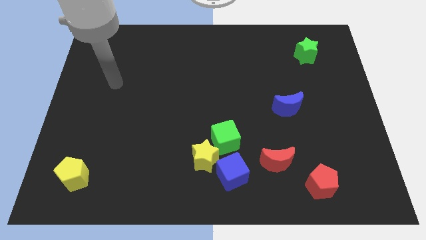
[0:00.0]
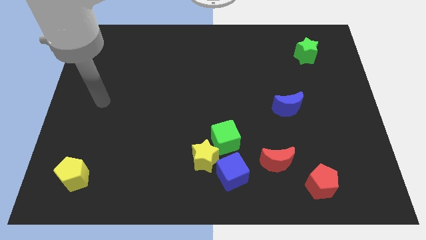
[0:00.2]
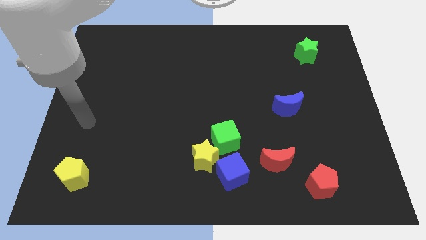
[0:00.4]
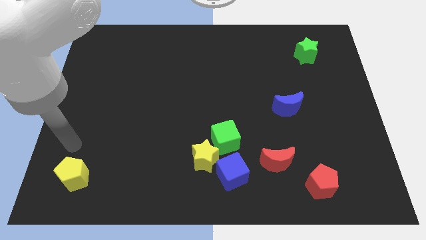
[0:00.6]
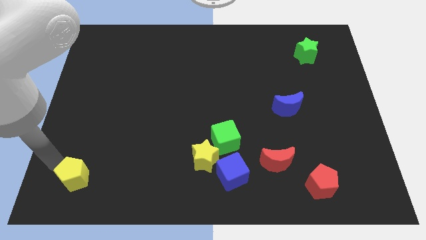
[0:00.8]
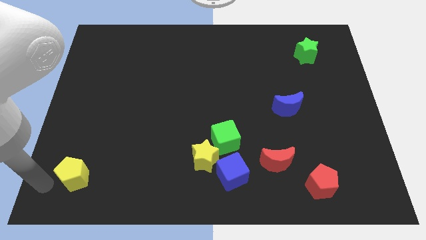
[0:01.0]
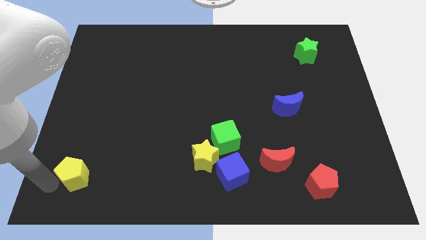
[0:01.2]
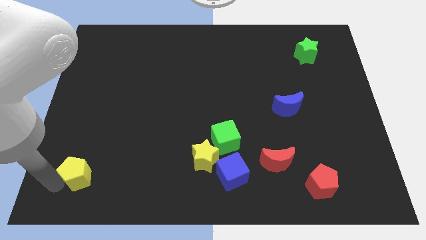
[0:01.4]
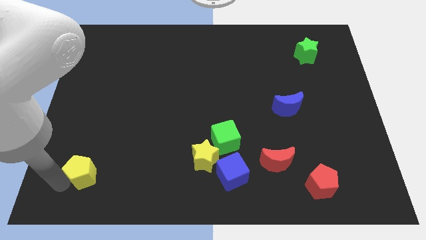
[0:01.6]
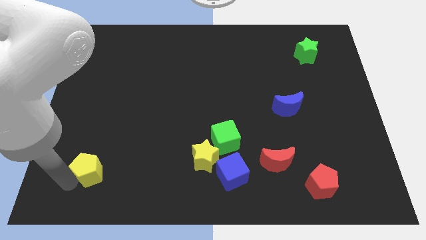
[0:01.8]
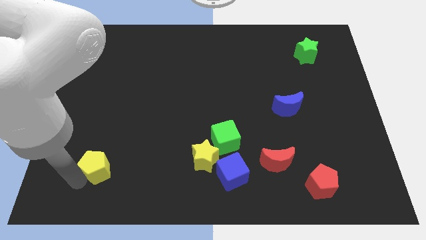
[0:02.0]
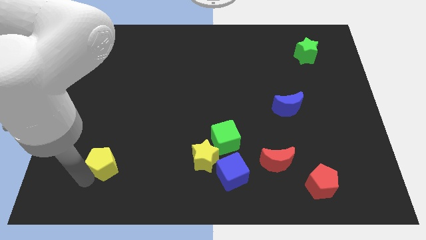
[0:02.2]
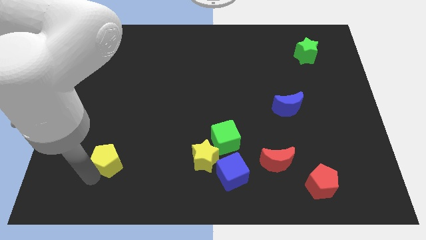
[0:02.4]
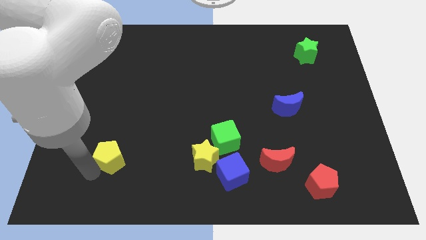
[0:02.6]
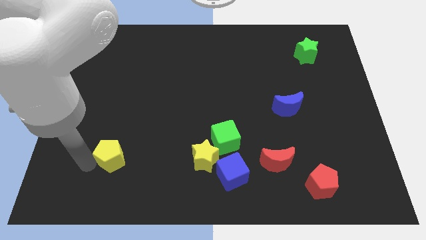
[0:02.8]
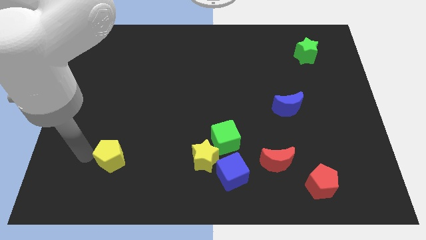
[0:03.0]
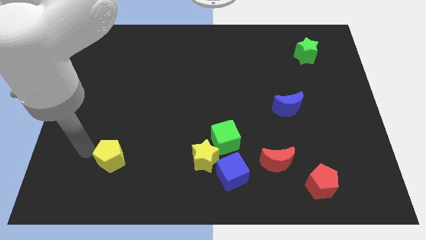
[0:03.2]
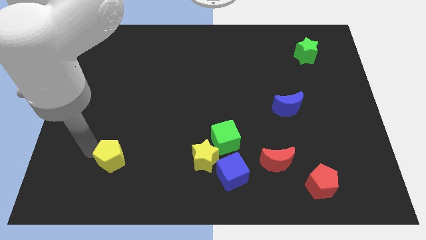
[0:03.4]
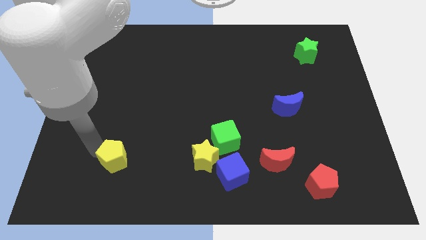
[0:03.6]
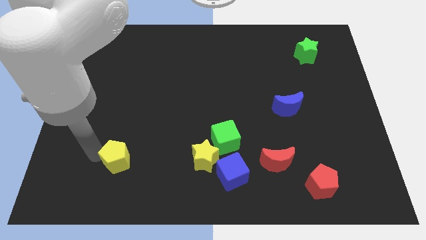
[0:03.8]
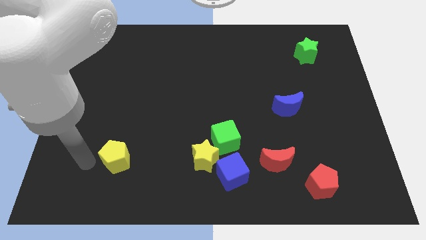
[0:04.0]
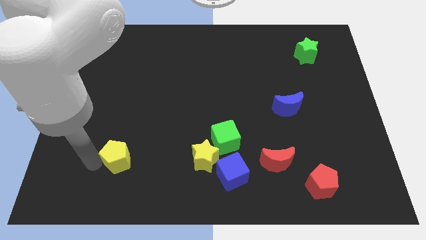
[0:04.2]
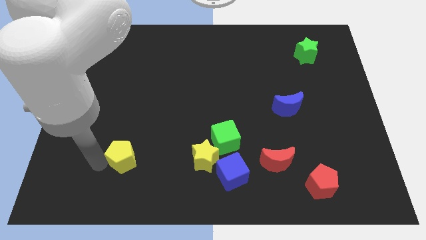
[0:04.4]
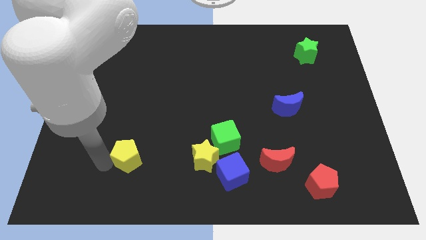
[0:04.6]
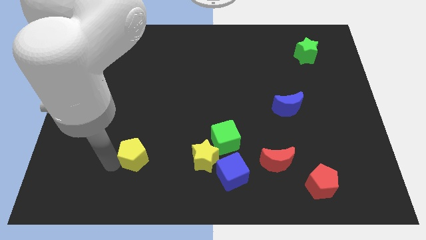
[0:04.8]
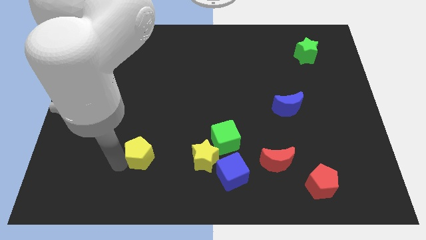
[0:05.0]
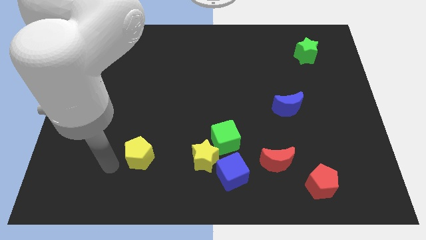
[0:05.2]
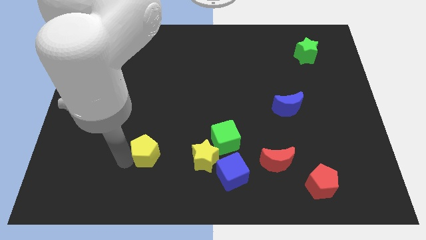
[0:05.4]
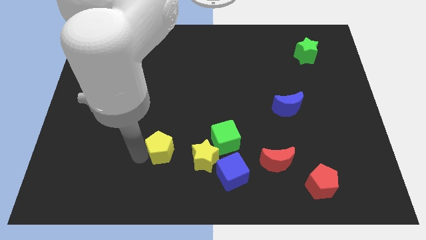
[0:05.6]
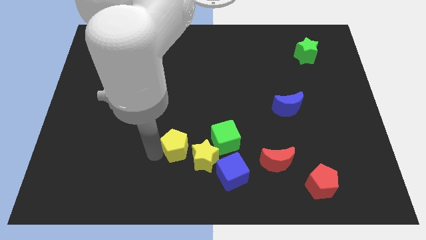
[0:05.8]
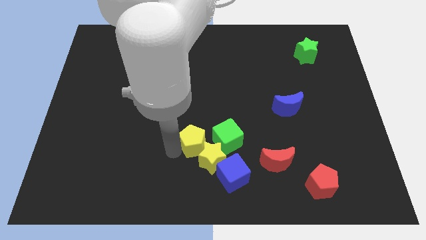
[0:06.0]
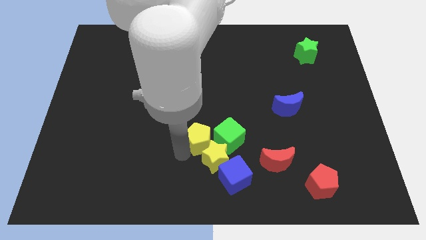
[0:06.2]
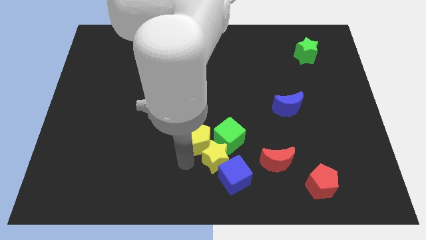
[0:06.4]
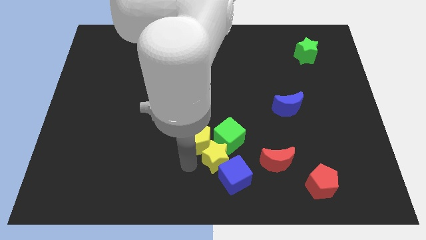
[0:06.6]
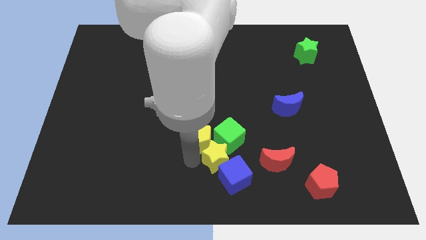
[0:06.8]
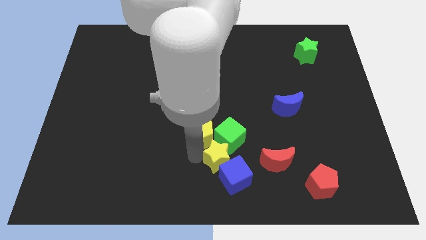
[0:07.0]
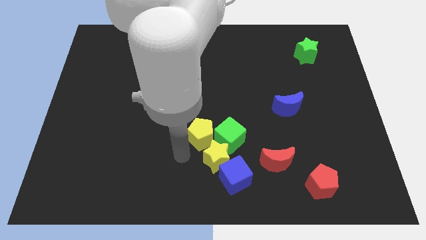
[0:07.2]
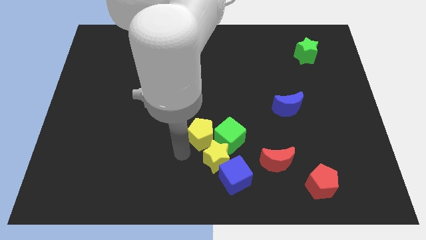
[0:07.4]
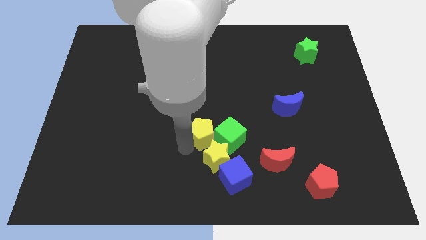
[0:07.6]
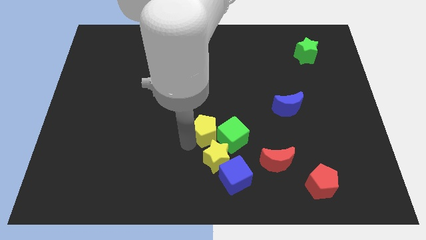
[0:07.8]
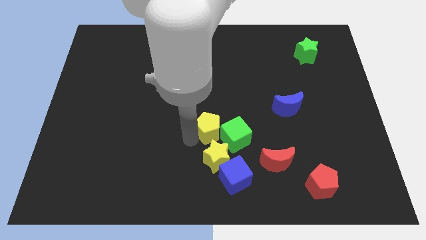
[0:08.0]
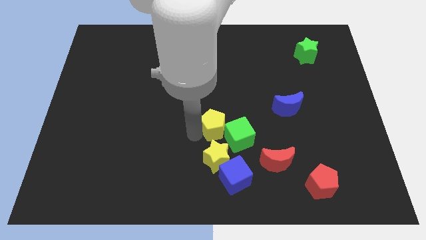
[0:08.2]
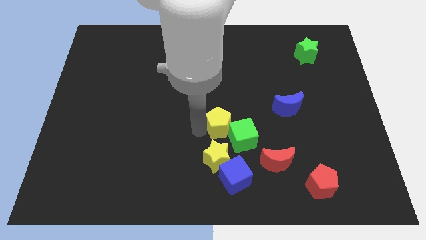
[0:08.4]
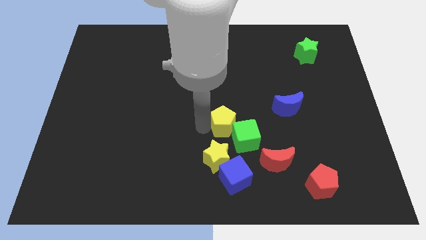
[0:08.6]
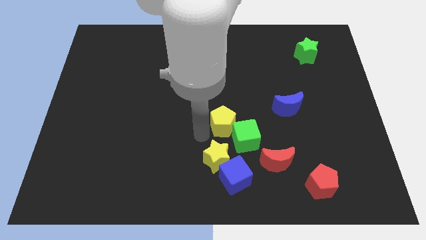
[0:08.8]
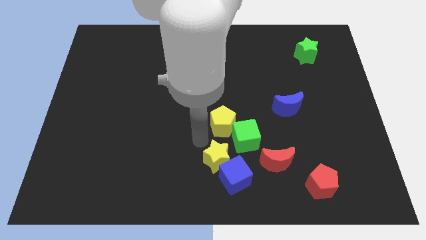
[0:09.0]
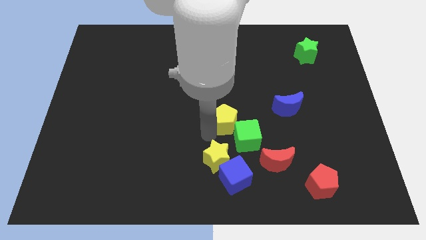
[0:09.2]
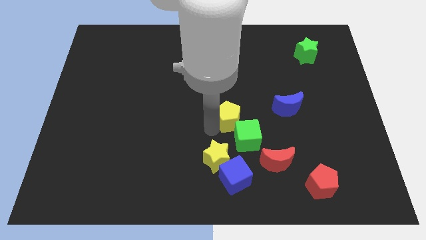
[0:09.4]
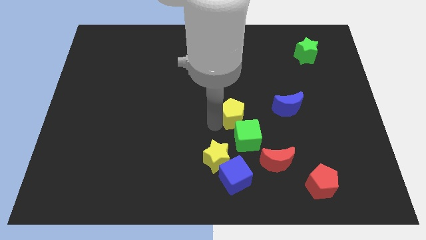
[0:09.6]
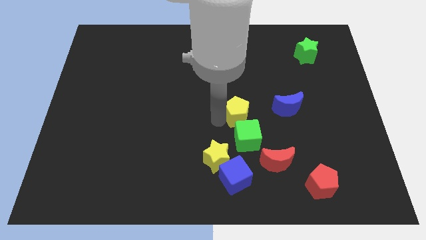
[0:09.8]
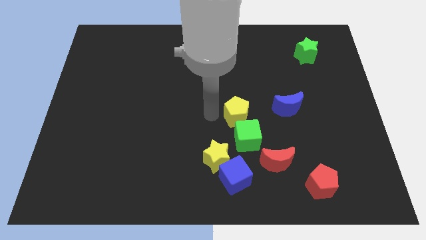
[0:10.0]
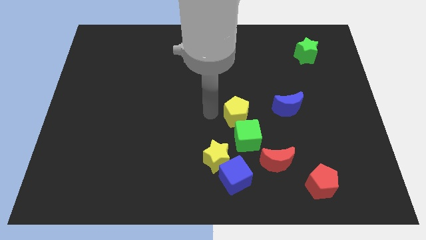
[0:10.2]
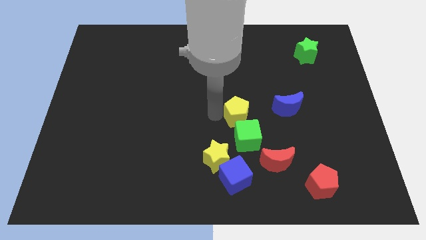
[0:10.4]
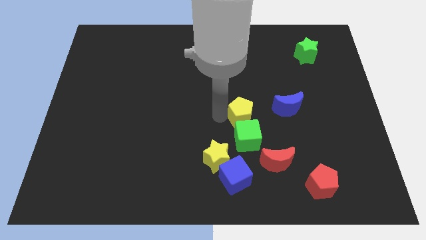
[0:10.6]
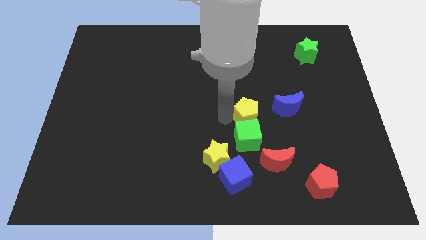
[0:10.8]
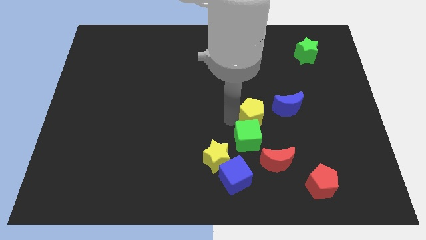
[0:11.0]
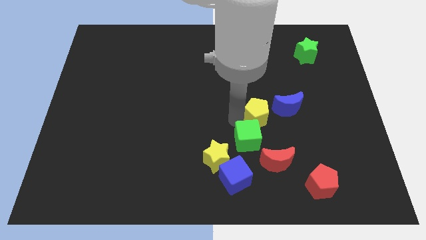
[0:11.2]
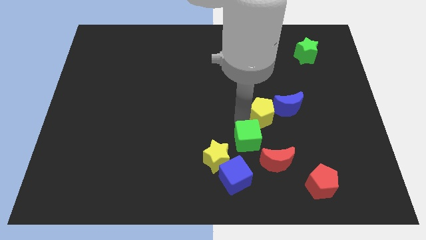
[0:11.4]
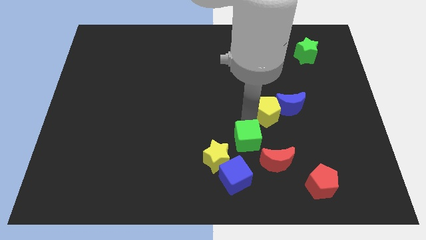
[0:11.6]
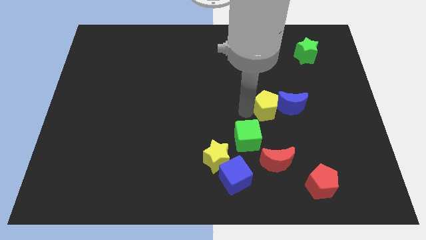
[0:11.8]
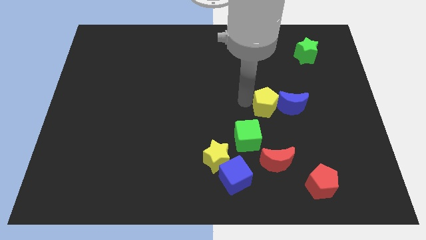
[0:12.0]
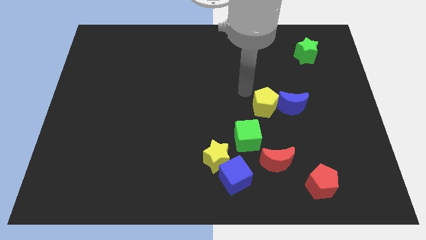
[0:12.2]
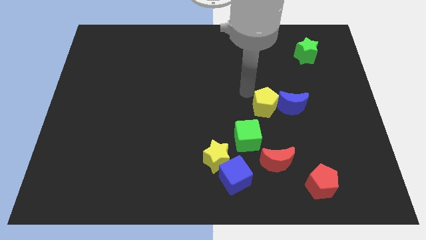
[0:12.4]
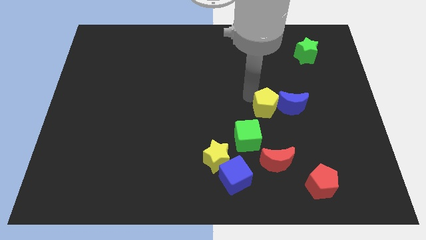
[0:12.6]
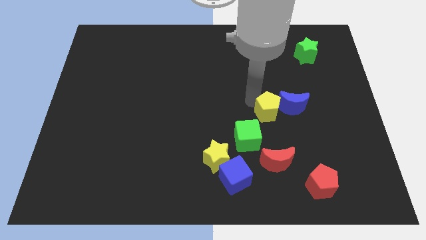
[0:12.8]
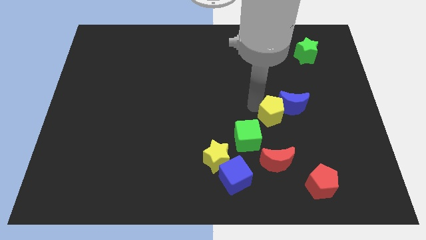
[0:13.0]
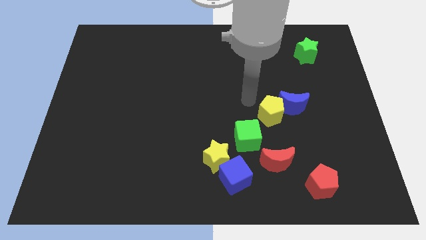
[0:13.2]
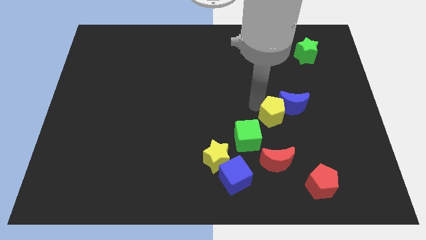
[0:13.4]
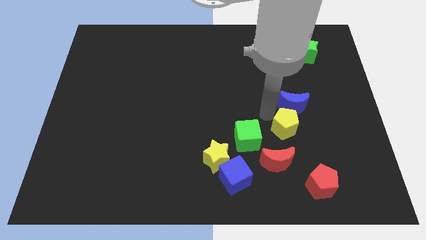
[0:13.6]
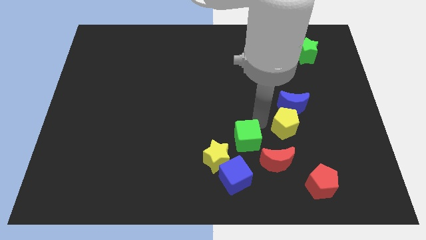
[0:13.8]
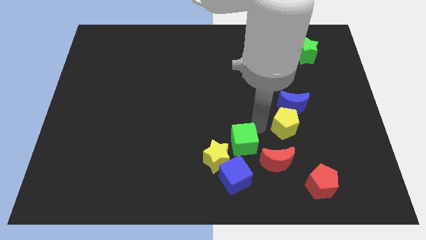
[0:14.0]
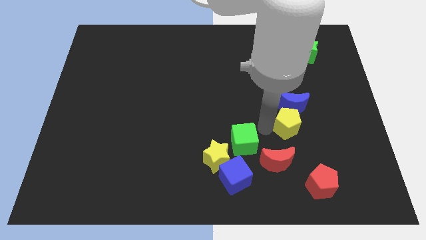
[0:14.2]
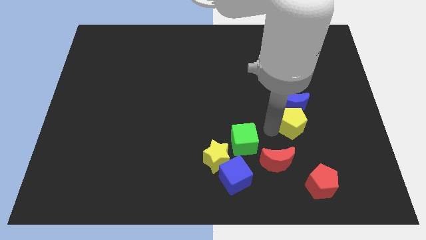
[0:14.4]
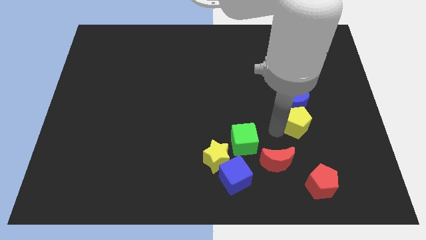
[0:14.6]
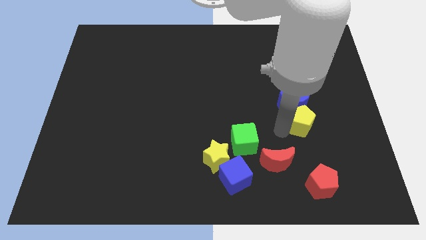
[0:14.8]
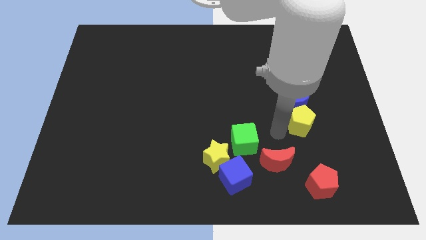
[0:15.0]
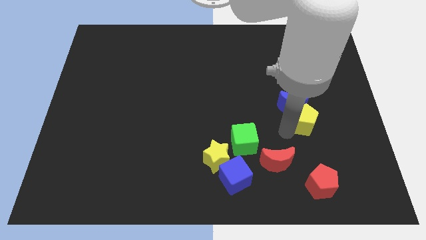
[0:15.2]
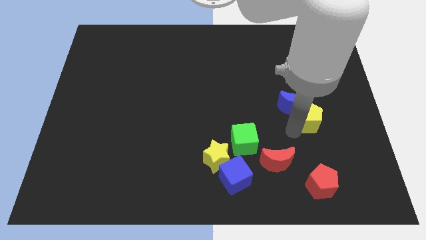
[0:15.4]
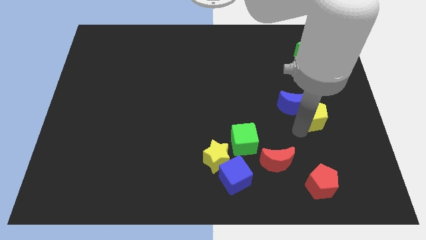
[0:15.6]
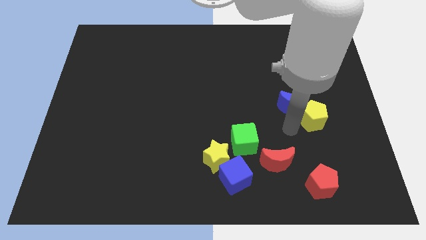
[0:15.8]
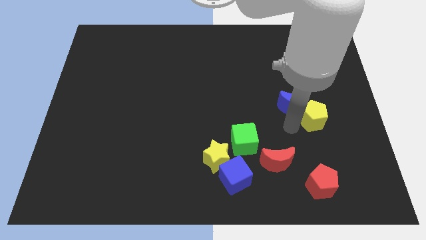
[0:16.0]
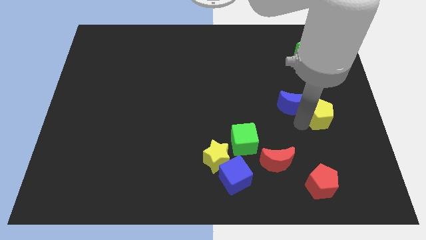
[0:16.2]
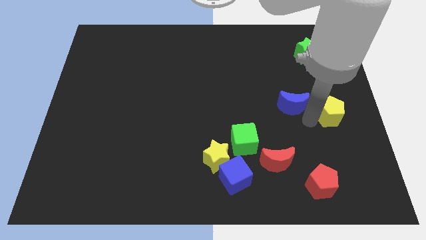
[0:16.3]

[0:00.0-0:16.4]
move the yellow pentagon to the right side
